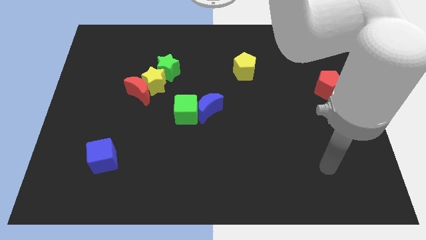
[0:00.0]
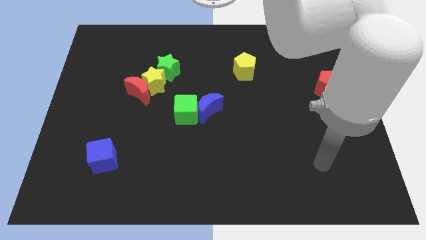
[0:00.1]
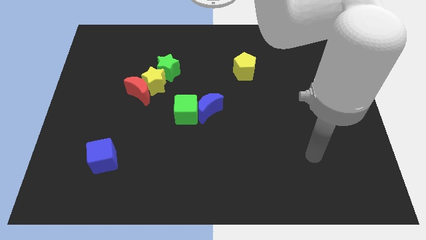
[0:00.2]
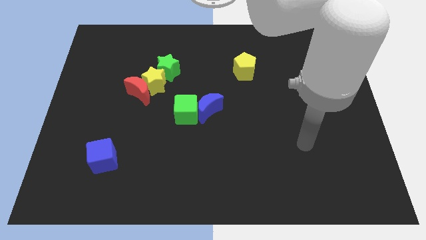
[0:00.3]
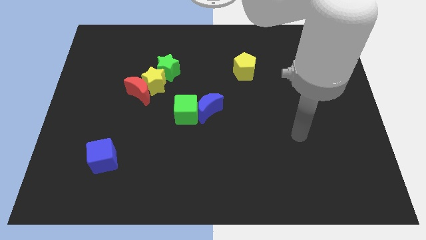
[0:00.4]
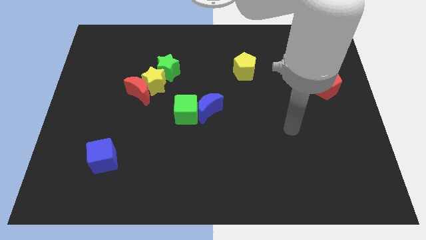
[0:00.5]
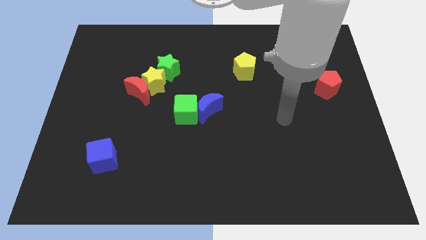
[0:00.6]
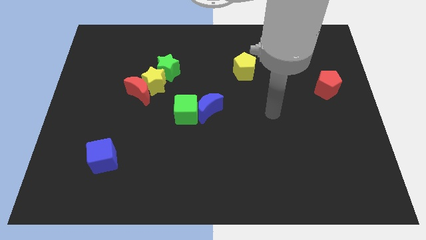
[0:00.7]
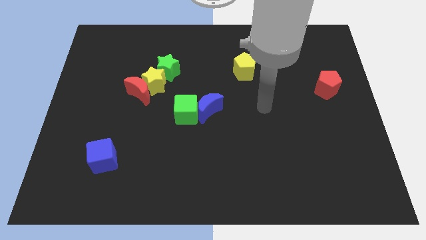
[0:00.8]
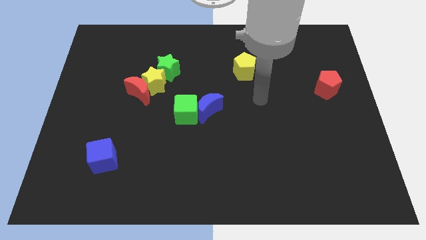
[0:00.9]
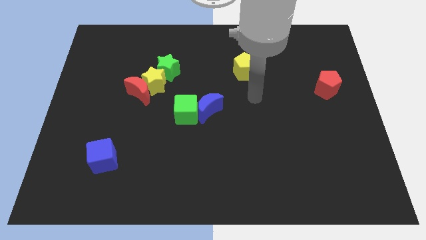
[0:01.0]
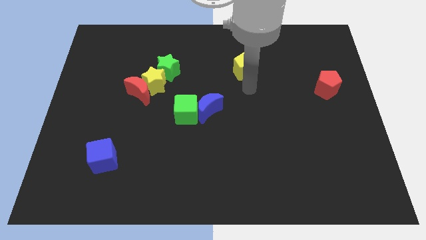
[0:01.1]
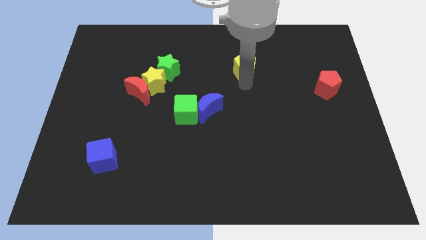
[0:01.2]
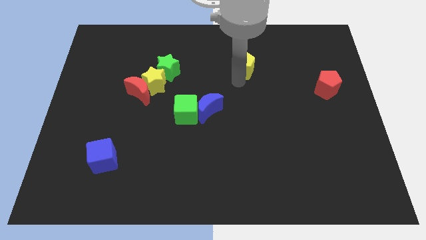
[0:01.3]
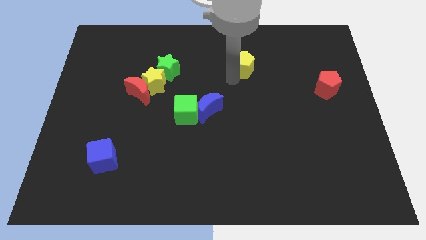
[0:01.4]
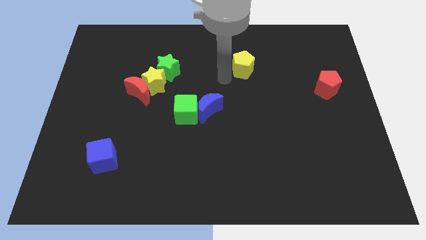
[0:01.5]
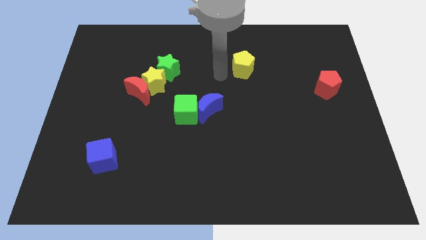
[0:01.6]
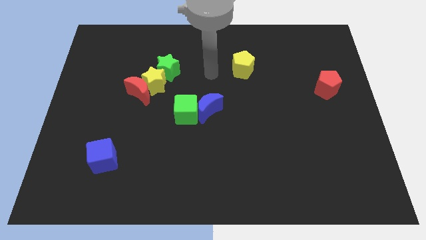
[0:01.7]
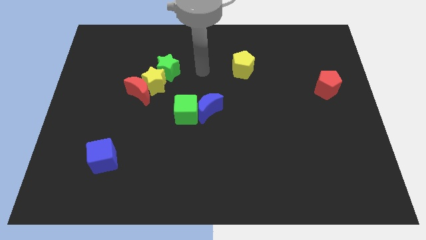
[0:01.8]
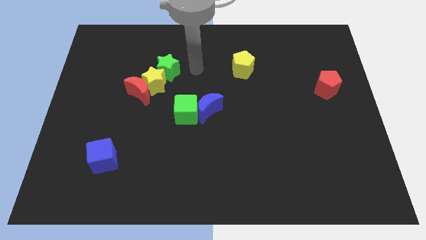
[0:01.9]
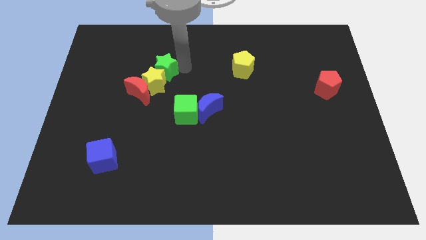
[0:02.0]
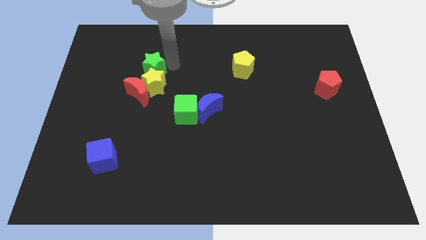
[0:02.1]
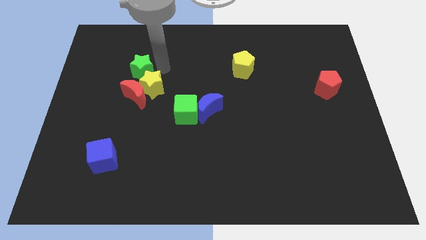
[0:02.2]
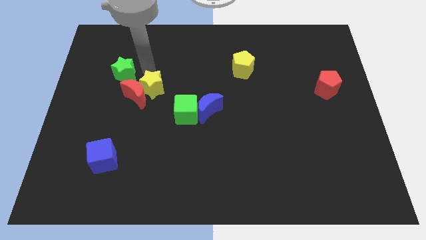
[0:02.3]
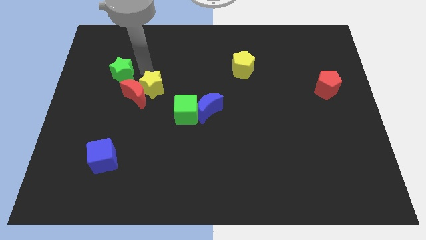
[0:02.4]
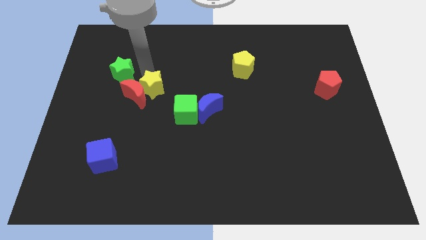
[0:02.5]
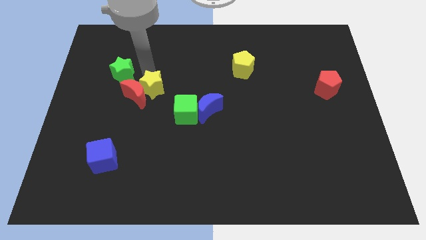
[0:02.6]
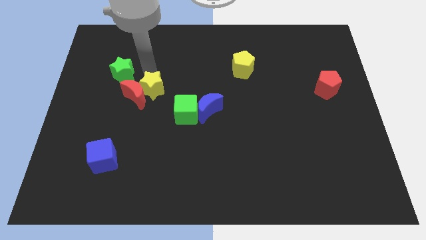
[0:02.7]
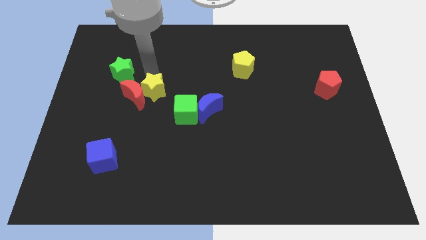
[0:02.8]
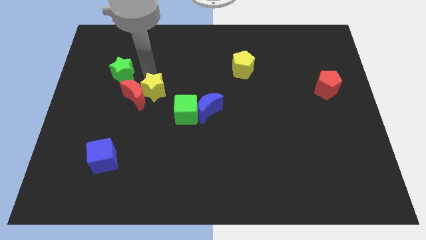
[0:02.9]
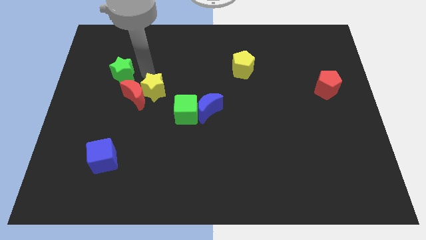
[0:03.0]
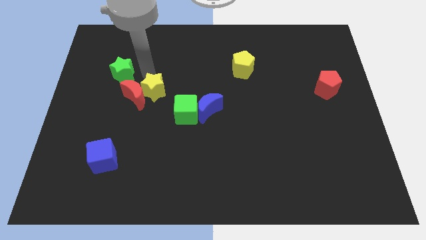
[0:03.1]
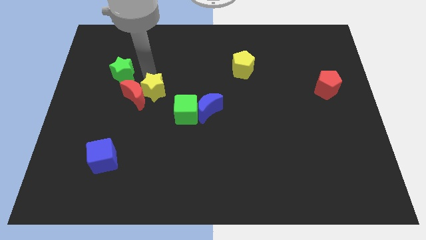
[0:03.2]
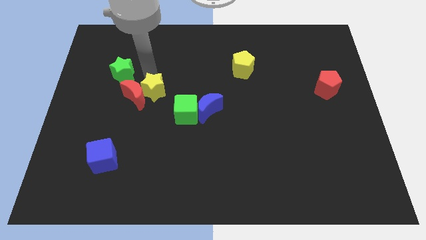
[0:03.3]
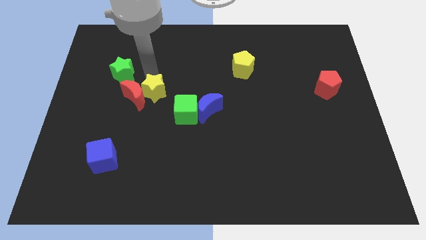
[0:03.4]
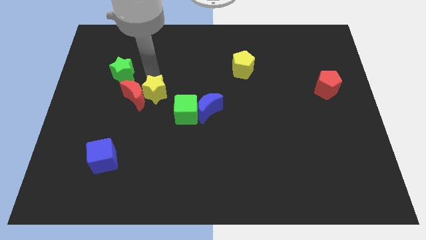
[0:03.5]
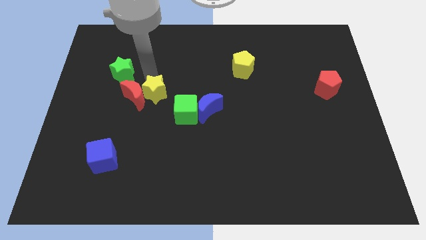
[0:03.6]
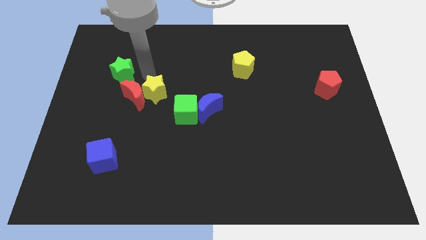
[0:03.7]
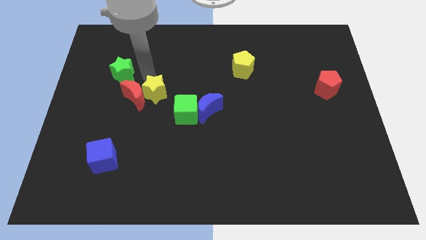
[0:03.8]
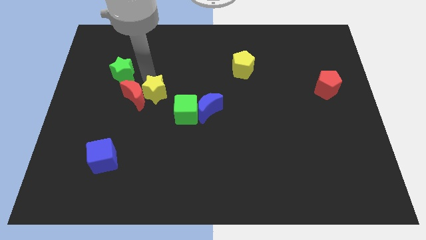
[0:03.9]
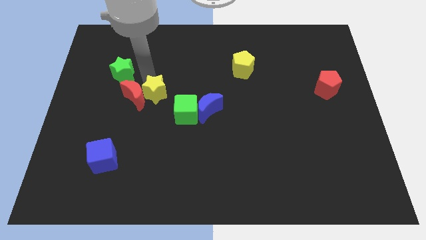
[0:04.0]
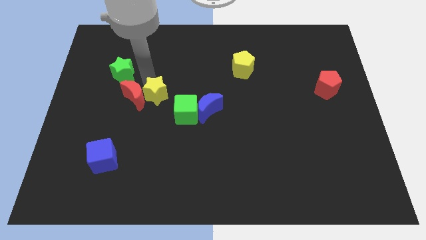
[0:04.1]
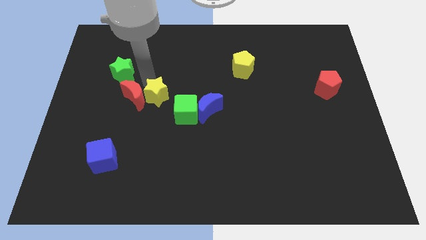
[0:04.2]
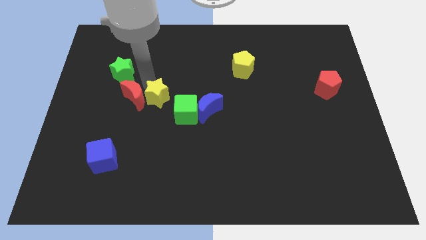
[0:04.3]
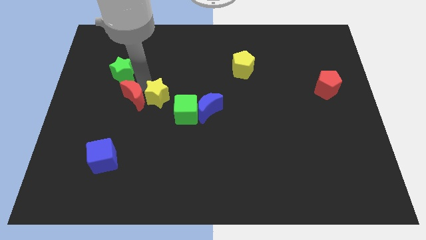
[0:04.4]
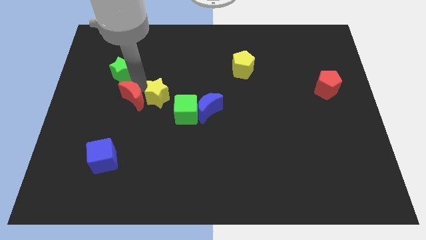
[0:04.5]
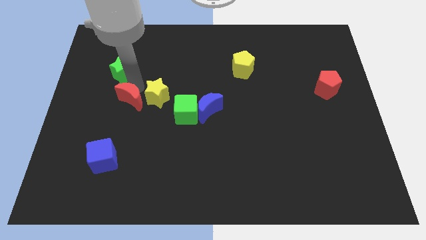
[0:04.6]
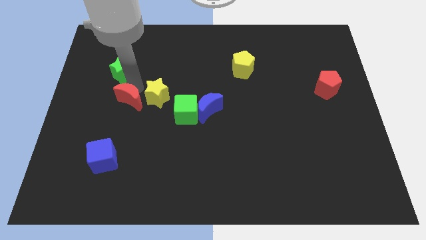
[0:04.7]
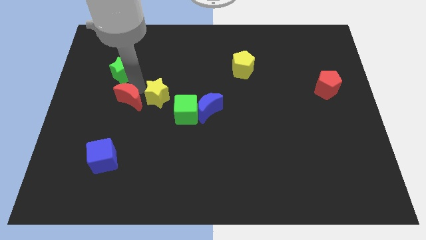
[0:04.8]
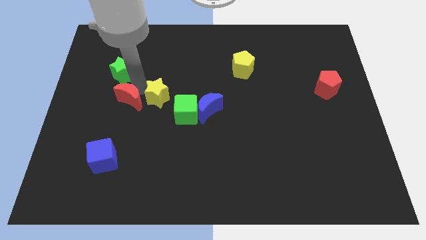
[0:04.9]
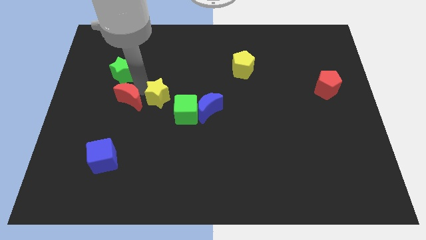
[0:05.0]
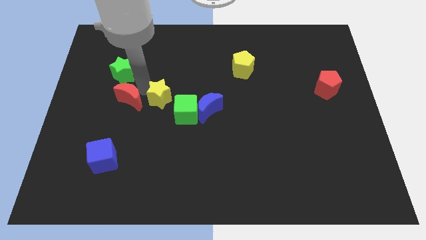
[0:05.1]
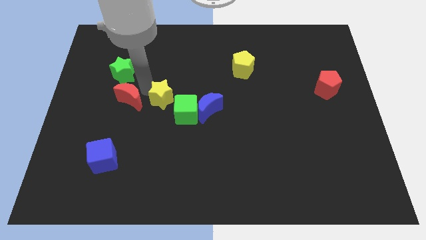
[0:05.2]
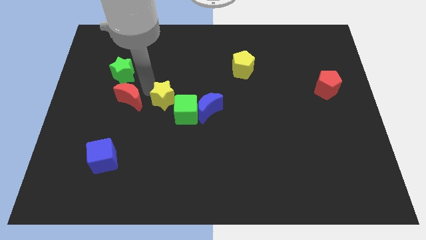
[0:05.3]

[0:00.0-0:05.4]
move the yellow star away from the red moon and green star

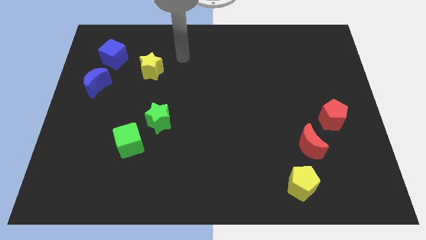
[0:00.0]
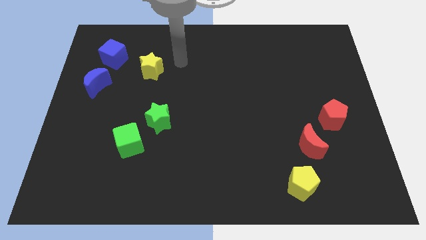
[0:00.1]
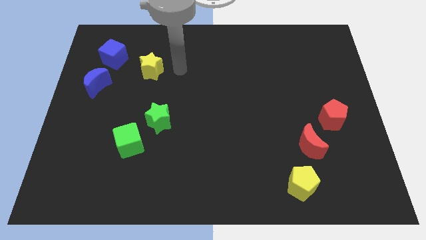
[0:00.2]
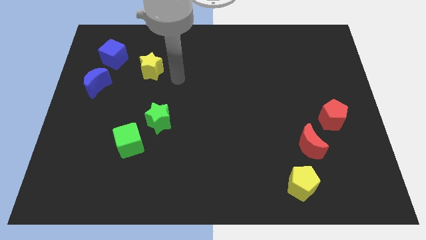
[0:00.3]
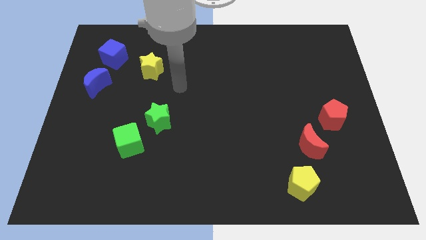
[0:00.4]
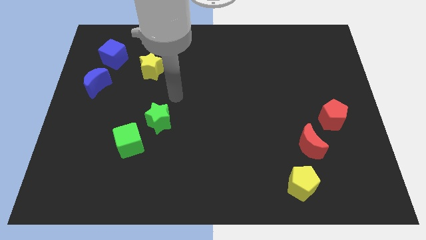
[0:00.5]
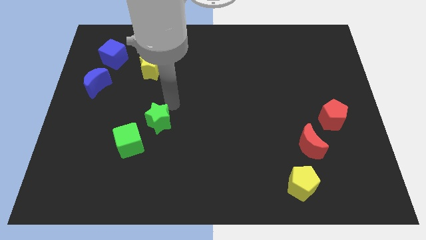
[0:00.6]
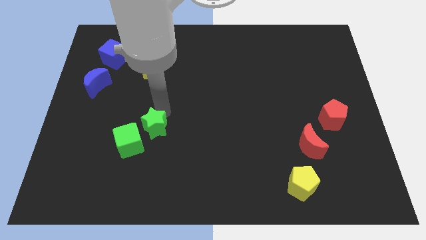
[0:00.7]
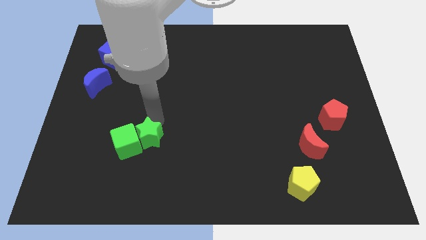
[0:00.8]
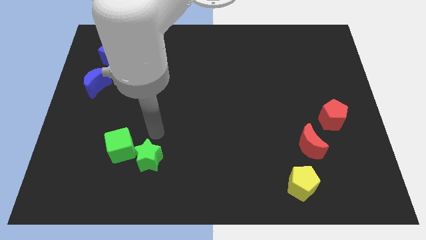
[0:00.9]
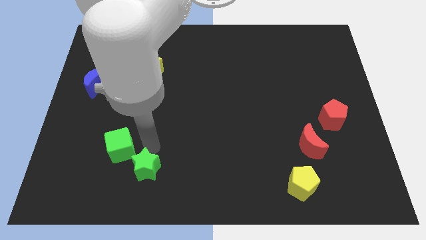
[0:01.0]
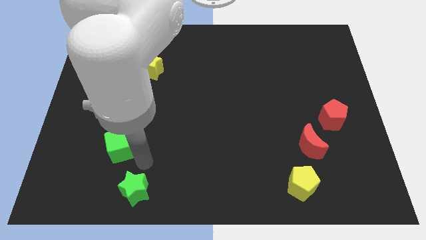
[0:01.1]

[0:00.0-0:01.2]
separate the green cube from the green star

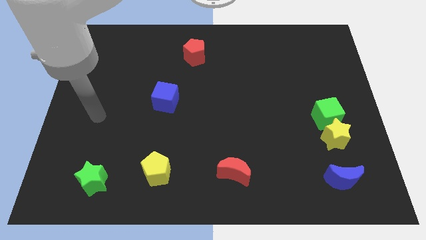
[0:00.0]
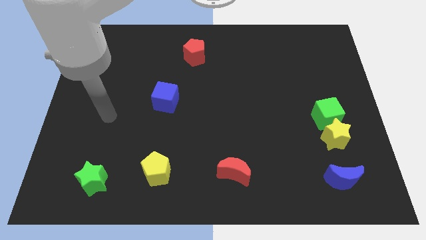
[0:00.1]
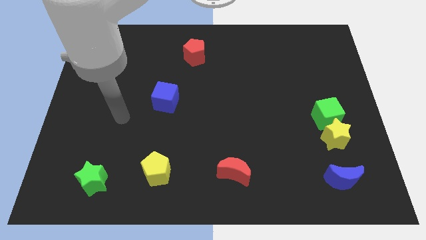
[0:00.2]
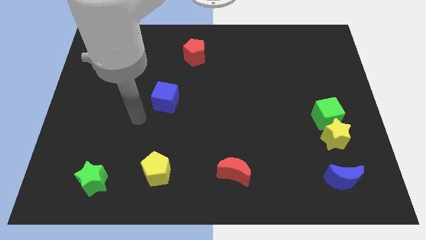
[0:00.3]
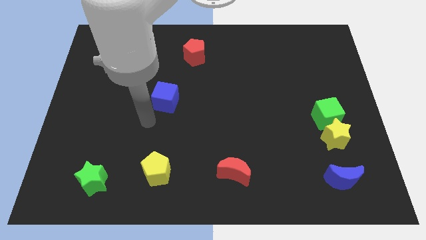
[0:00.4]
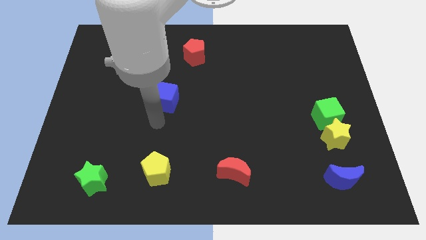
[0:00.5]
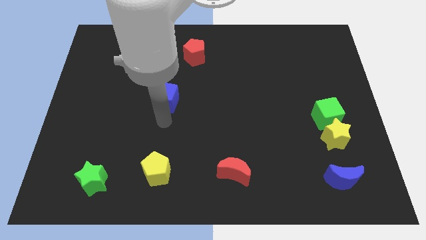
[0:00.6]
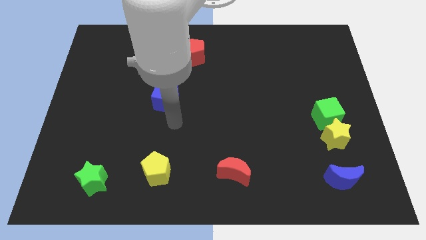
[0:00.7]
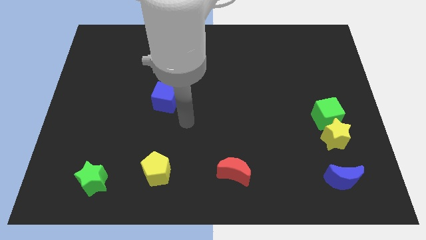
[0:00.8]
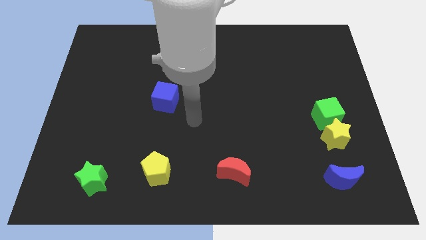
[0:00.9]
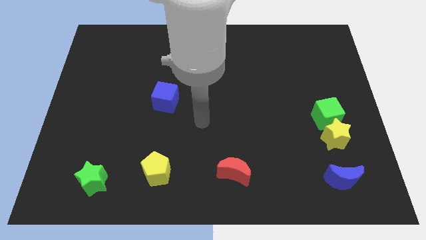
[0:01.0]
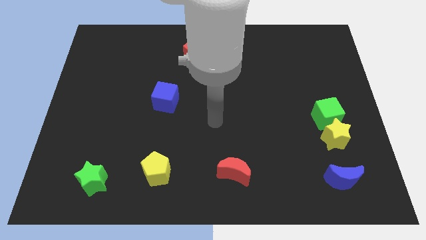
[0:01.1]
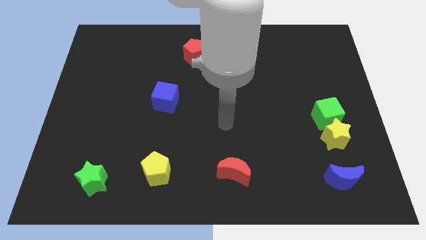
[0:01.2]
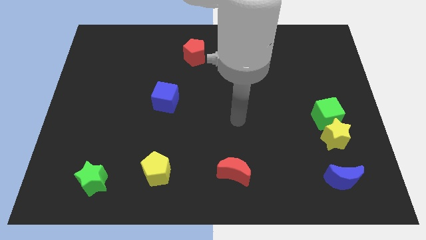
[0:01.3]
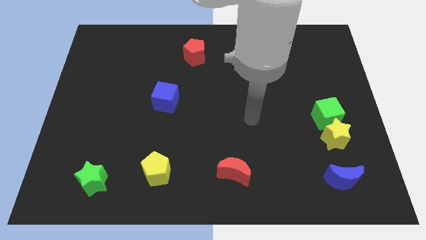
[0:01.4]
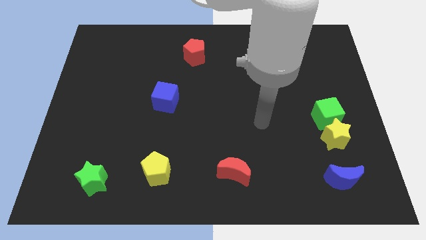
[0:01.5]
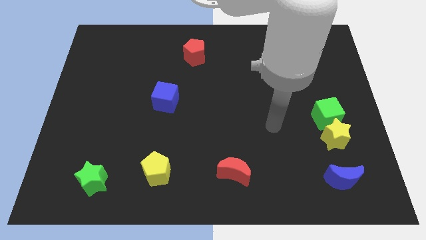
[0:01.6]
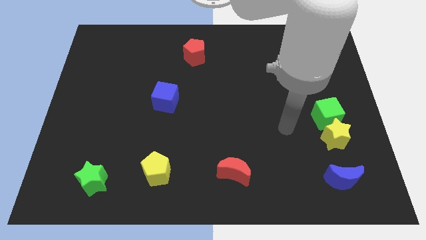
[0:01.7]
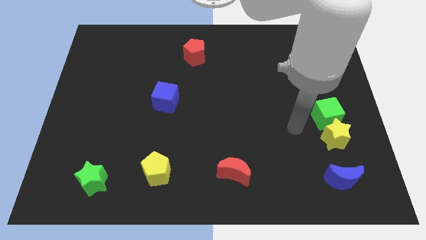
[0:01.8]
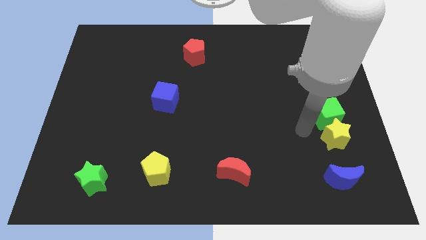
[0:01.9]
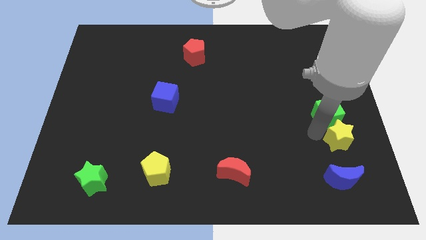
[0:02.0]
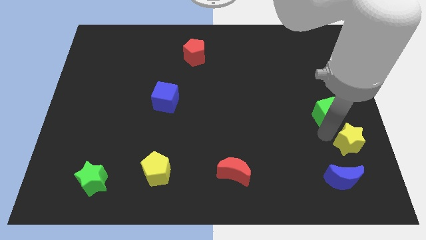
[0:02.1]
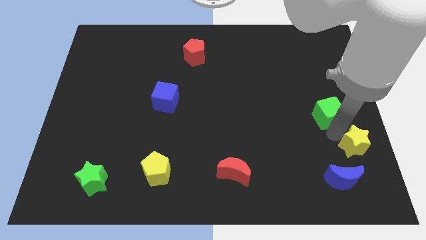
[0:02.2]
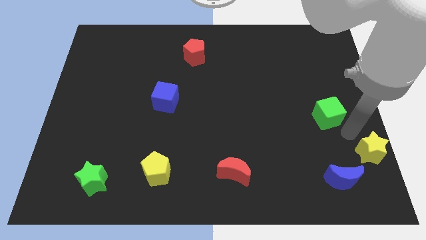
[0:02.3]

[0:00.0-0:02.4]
separate the green cube from the yellow star

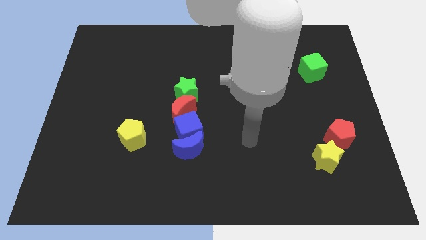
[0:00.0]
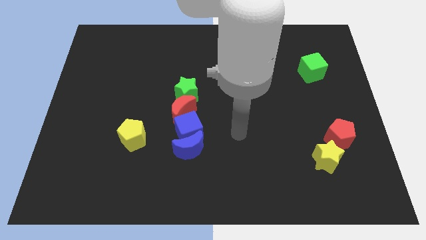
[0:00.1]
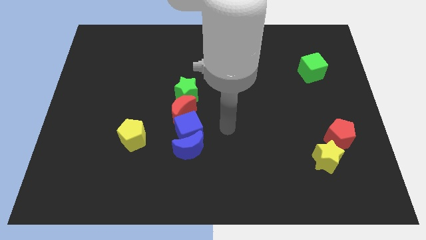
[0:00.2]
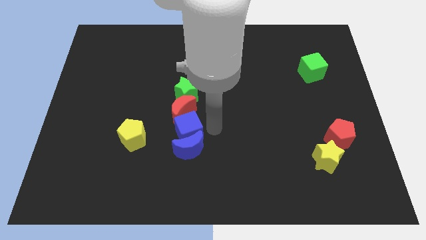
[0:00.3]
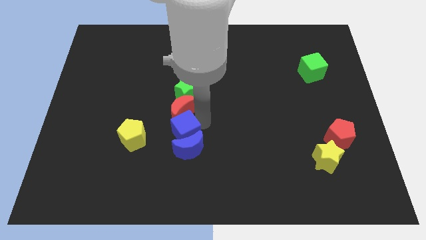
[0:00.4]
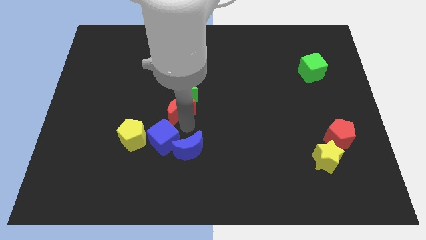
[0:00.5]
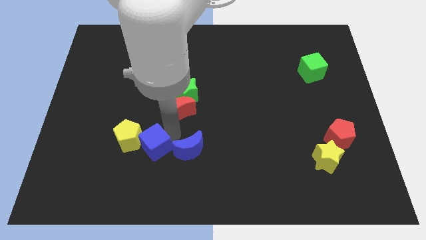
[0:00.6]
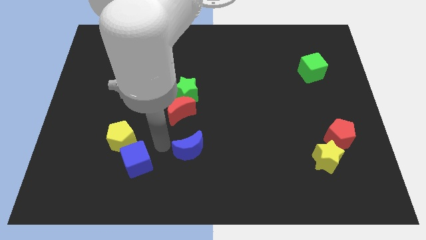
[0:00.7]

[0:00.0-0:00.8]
pull the blue moon apart from the blue cube
